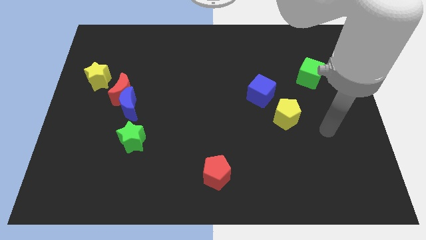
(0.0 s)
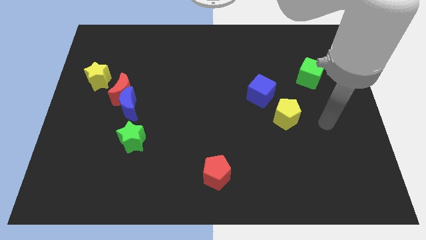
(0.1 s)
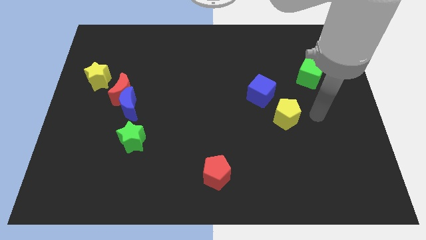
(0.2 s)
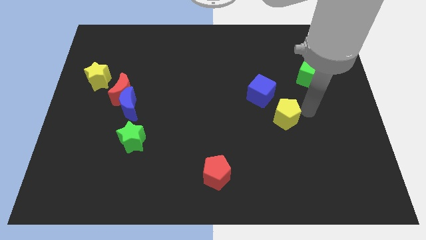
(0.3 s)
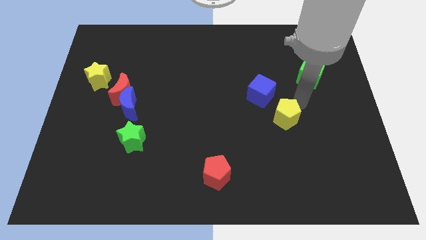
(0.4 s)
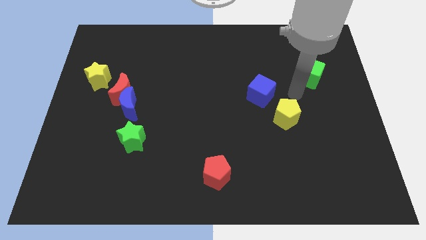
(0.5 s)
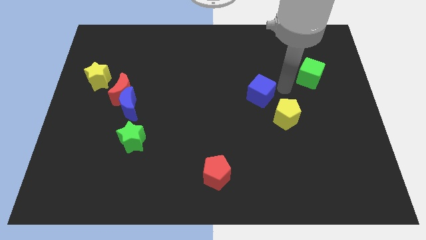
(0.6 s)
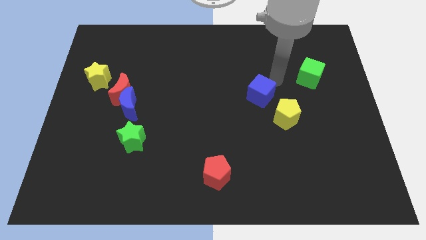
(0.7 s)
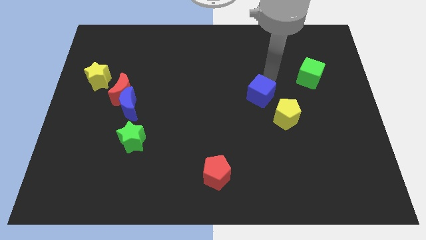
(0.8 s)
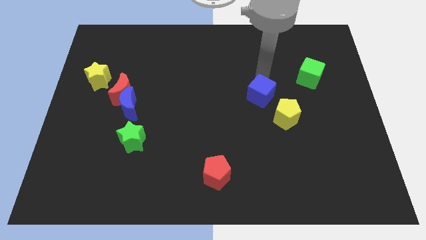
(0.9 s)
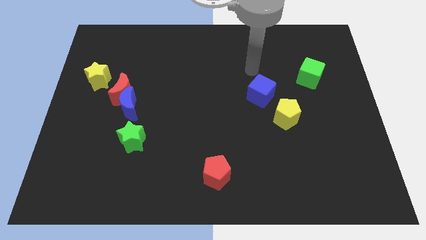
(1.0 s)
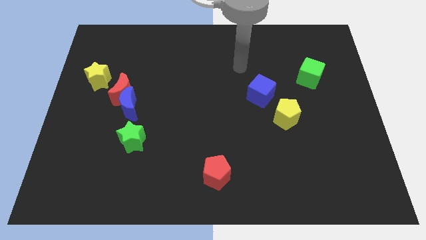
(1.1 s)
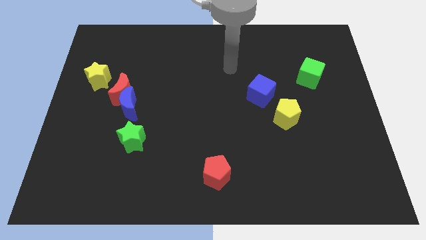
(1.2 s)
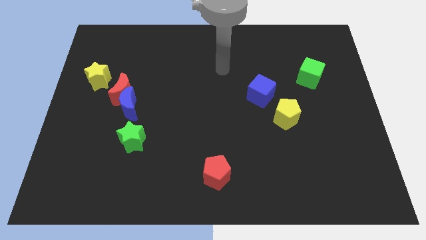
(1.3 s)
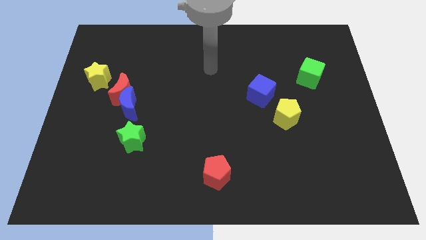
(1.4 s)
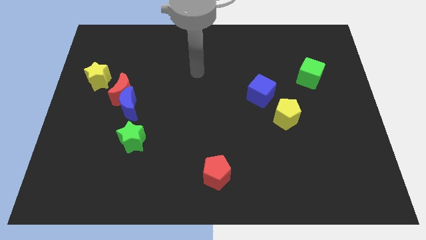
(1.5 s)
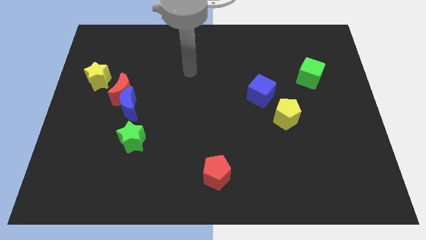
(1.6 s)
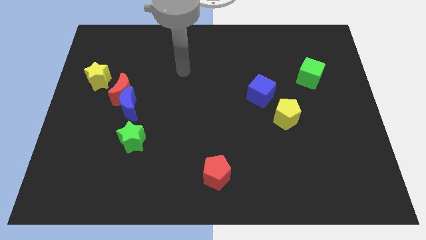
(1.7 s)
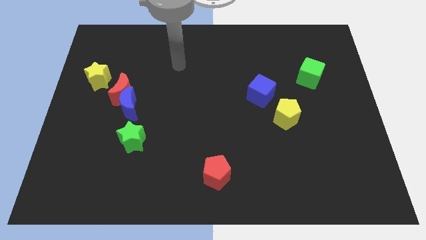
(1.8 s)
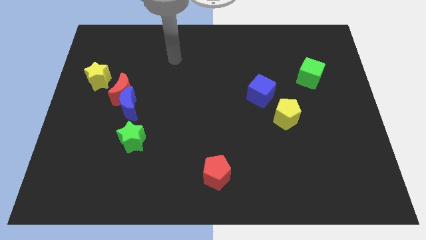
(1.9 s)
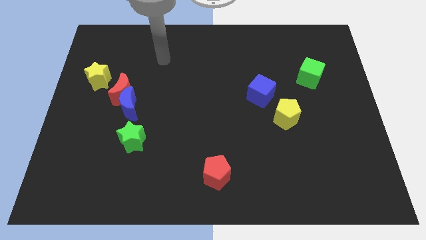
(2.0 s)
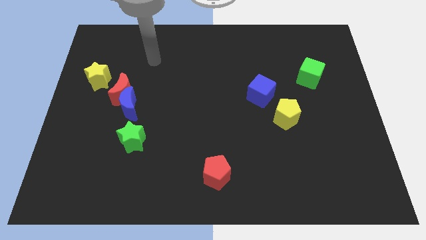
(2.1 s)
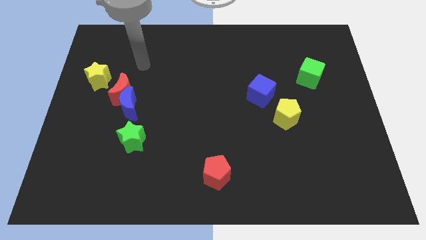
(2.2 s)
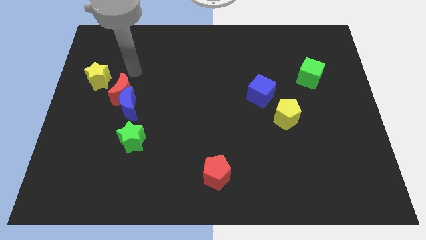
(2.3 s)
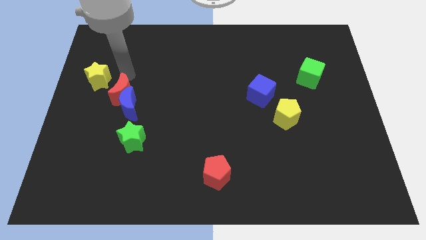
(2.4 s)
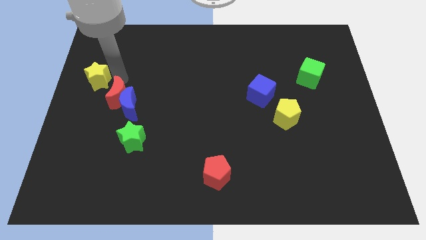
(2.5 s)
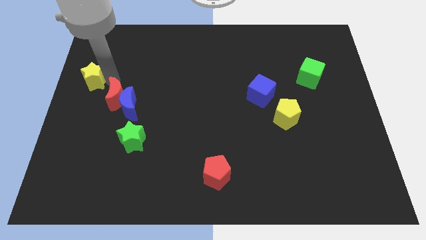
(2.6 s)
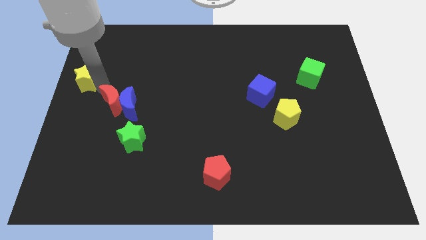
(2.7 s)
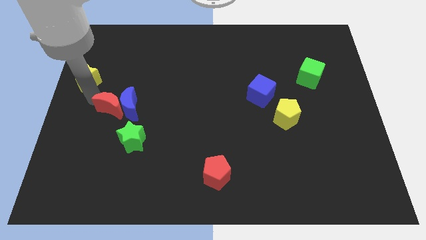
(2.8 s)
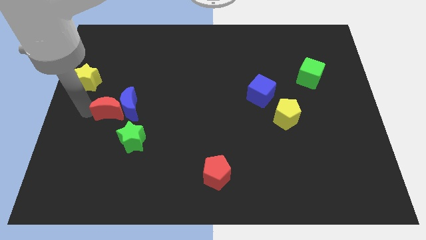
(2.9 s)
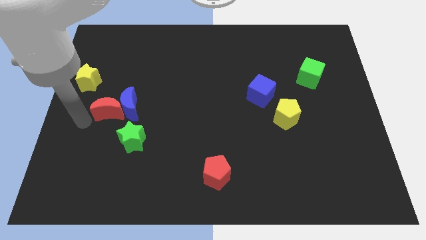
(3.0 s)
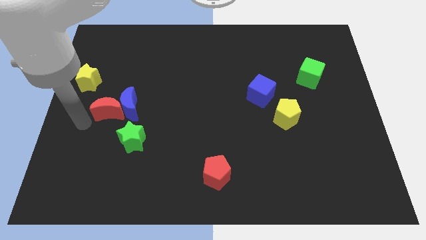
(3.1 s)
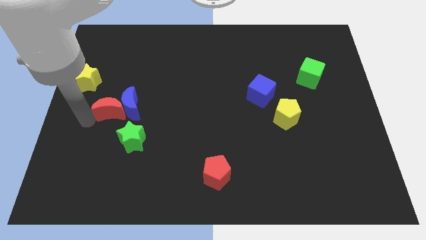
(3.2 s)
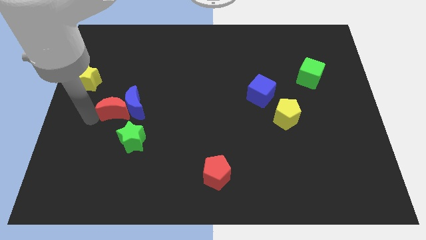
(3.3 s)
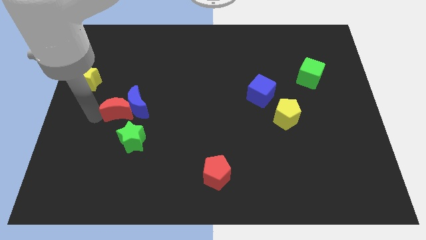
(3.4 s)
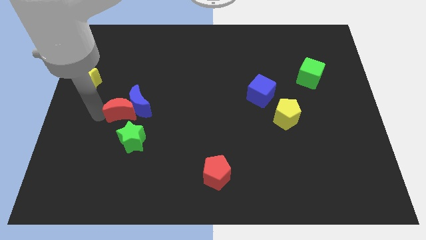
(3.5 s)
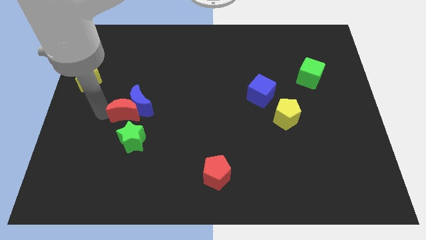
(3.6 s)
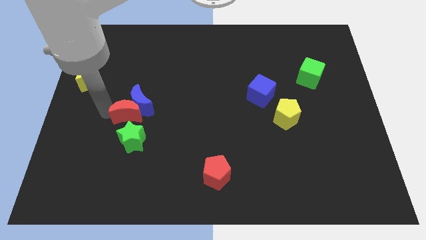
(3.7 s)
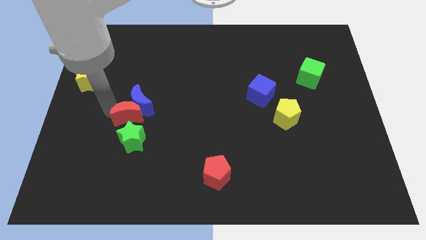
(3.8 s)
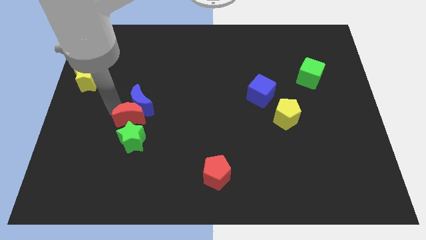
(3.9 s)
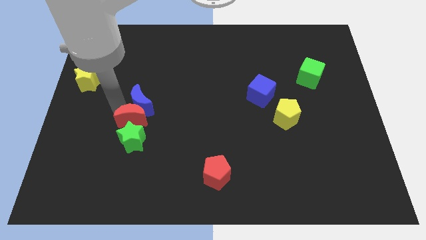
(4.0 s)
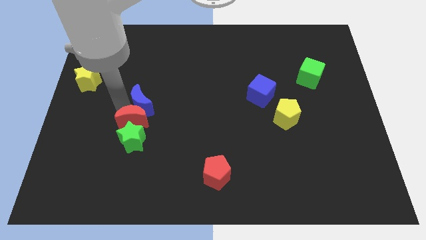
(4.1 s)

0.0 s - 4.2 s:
move the red moon away from the blue moon and yellow star

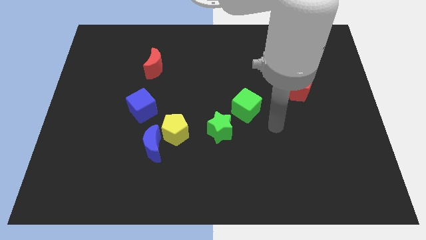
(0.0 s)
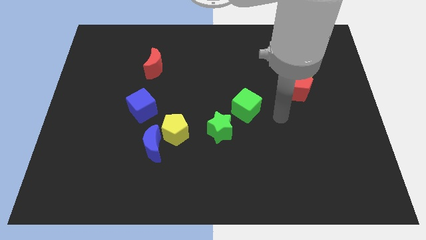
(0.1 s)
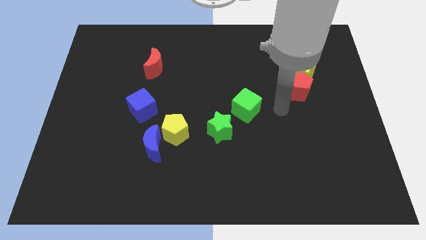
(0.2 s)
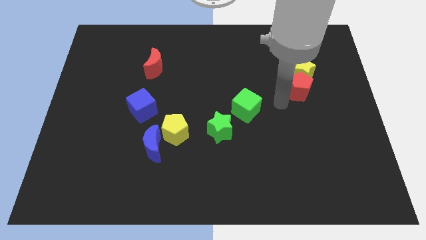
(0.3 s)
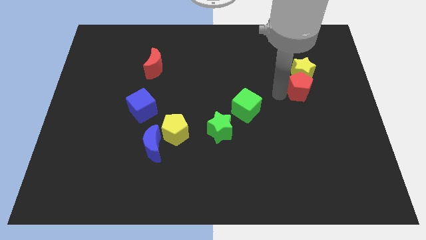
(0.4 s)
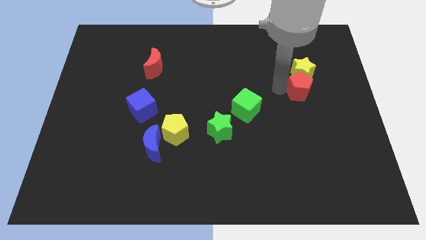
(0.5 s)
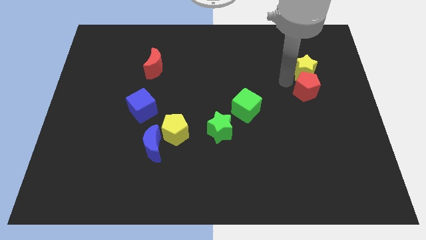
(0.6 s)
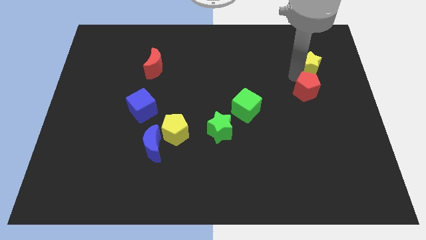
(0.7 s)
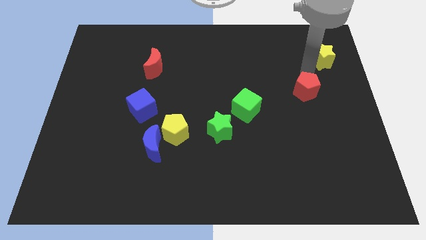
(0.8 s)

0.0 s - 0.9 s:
move the red pentagon away from the yellow star

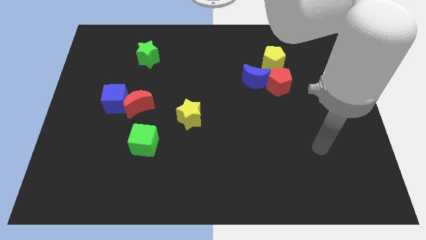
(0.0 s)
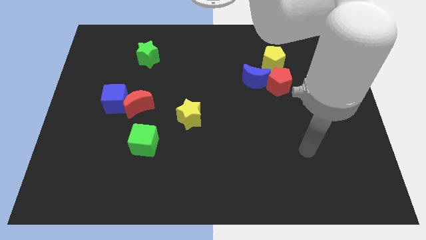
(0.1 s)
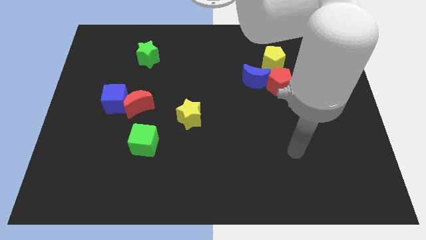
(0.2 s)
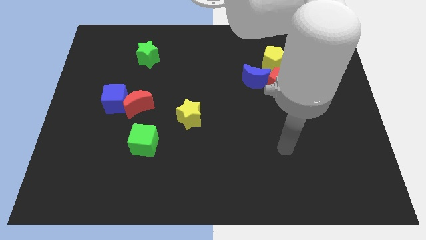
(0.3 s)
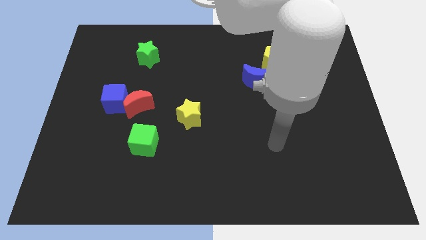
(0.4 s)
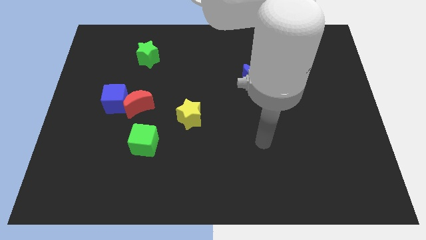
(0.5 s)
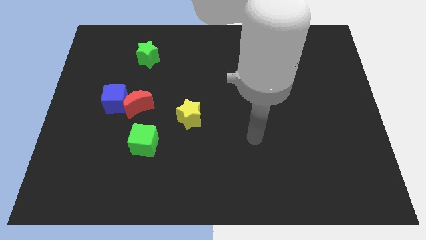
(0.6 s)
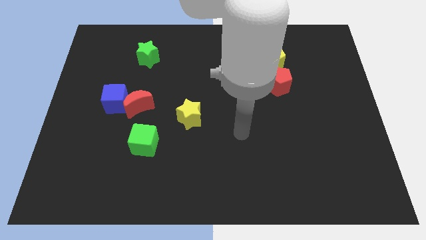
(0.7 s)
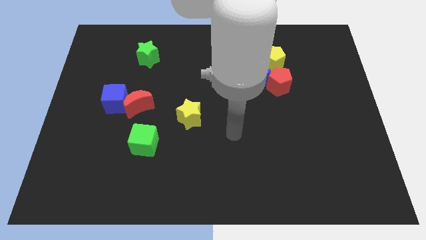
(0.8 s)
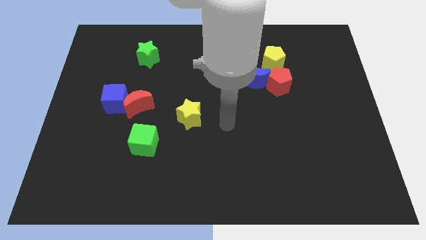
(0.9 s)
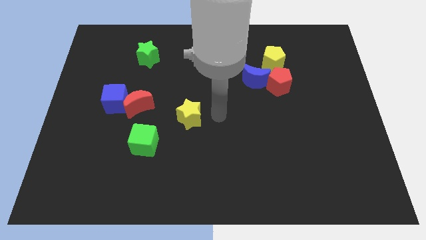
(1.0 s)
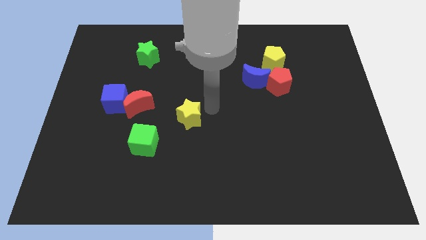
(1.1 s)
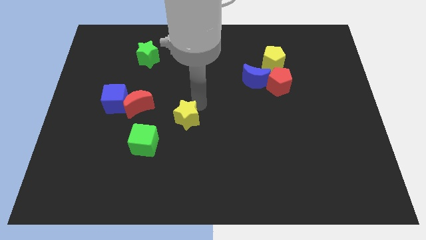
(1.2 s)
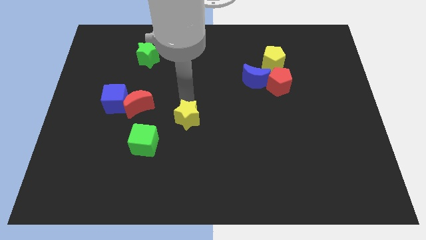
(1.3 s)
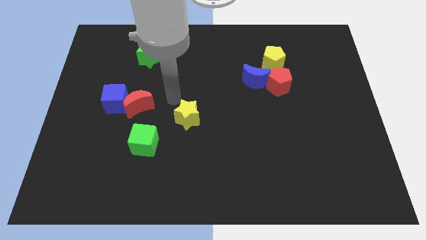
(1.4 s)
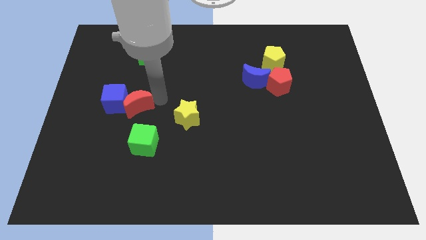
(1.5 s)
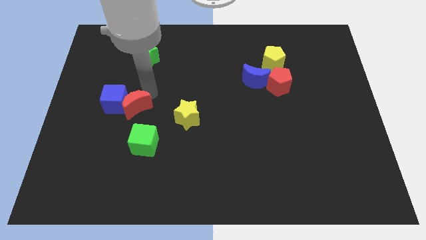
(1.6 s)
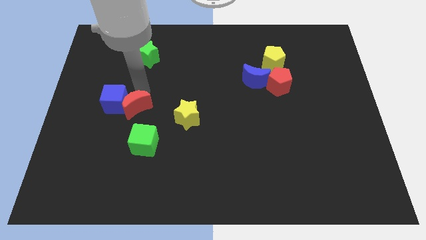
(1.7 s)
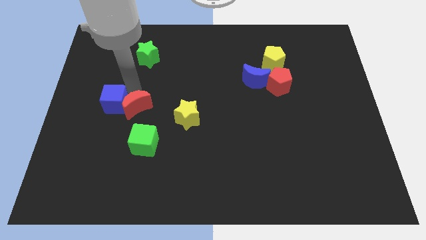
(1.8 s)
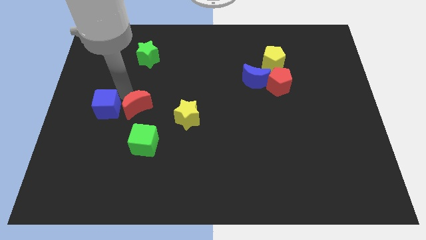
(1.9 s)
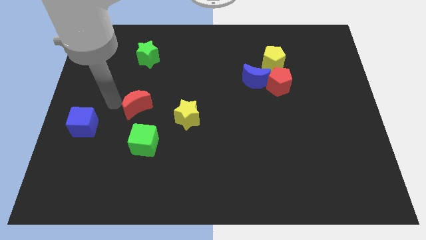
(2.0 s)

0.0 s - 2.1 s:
pull the red moon apart from the blue cube

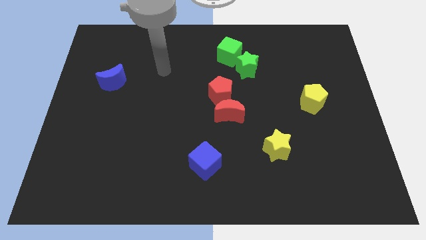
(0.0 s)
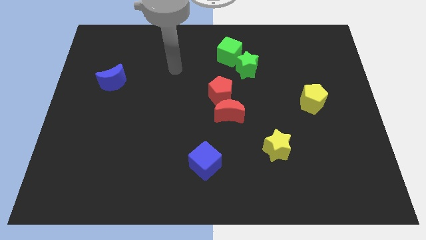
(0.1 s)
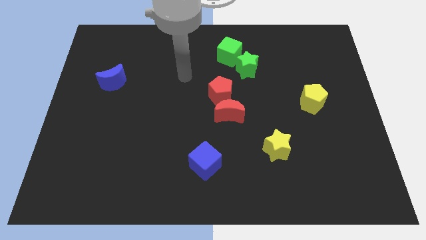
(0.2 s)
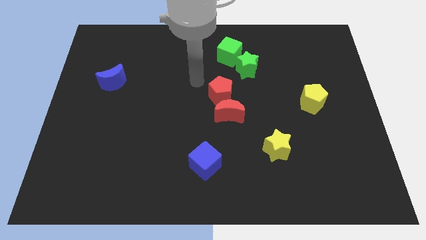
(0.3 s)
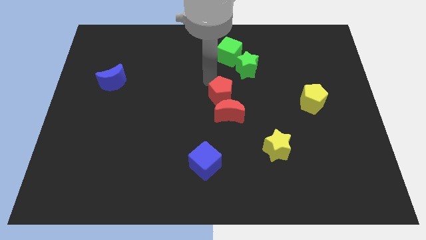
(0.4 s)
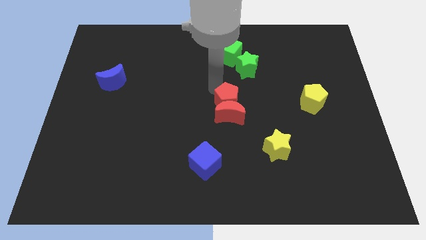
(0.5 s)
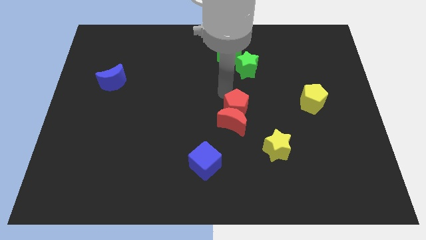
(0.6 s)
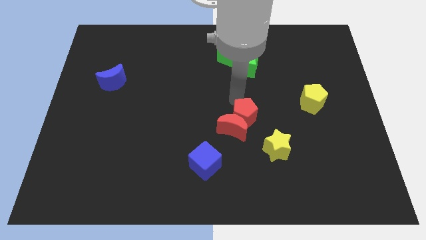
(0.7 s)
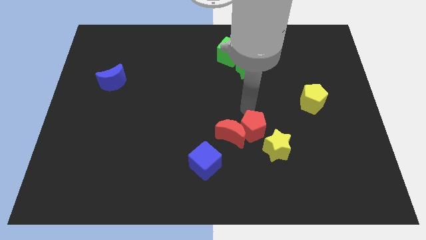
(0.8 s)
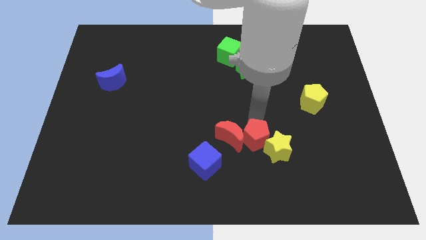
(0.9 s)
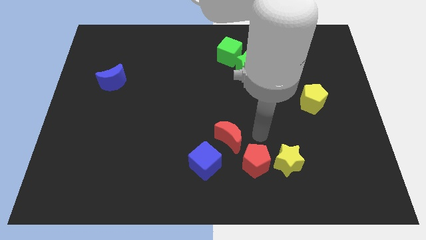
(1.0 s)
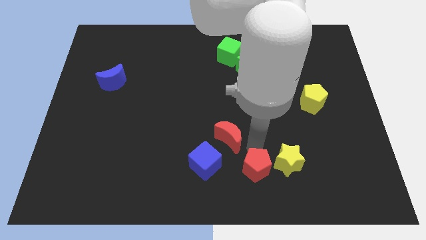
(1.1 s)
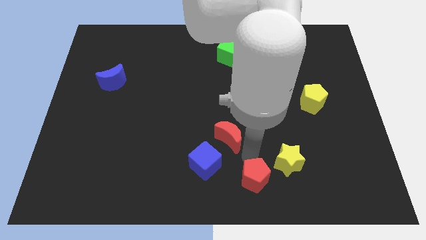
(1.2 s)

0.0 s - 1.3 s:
pull the red moon apart from the red pentagon

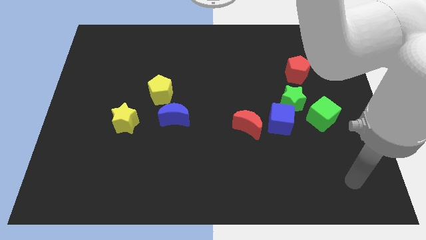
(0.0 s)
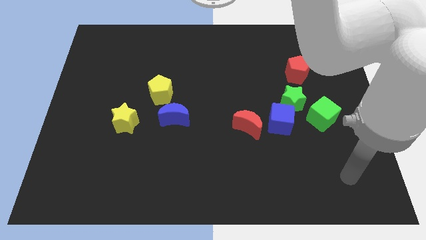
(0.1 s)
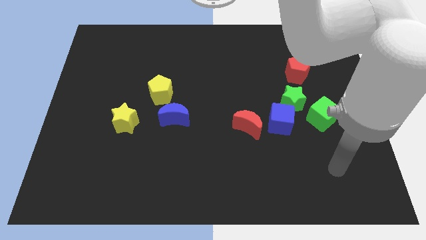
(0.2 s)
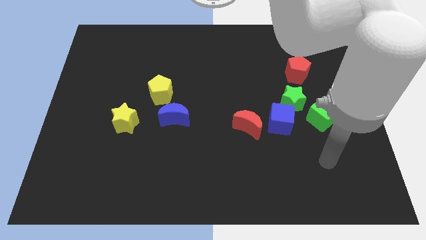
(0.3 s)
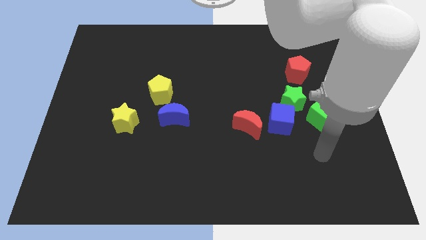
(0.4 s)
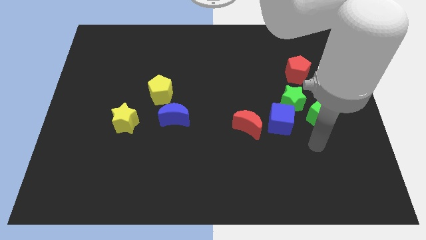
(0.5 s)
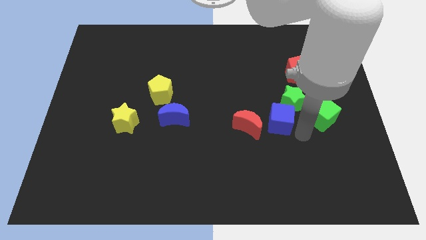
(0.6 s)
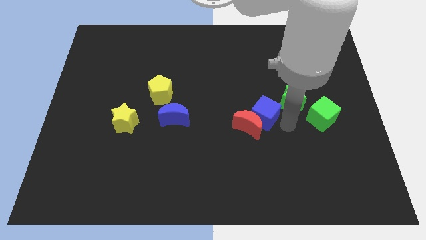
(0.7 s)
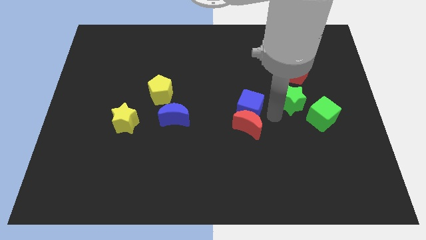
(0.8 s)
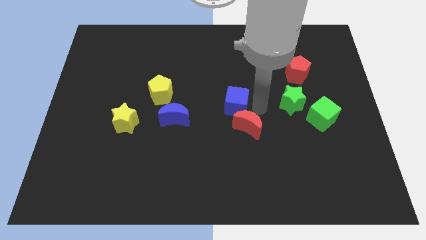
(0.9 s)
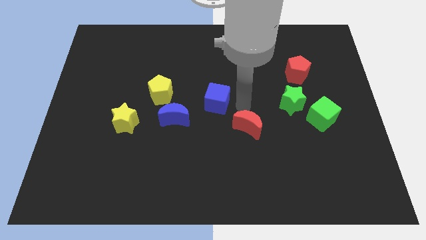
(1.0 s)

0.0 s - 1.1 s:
move the red moon away from the blue cube
